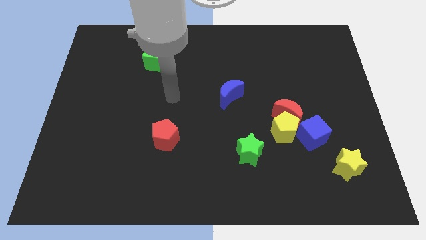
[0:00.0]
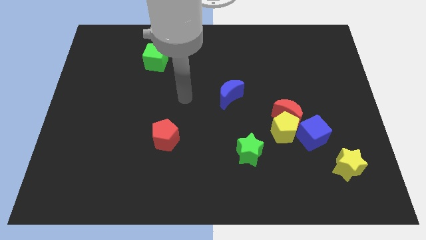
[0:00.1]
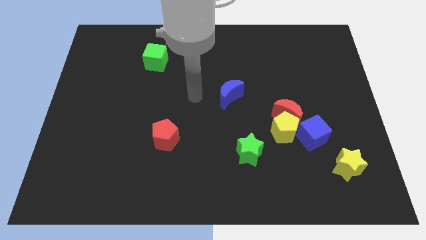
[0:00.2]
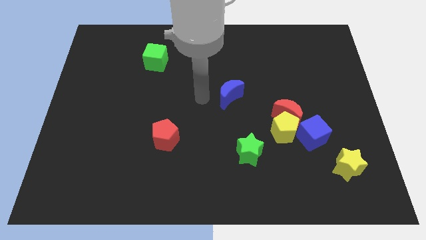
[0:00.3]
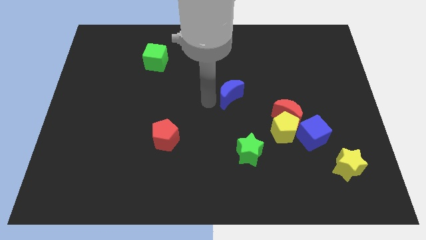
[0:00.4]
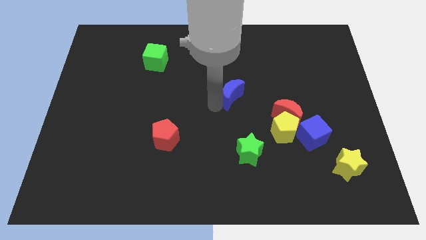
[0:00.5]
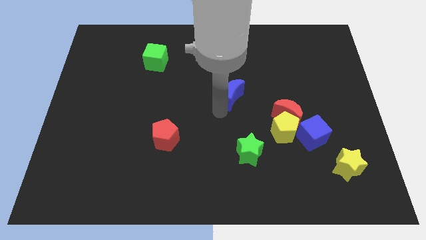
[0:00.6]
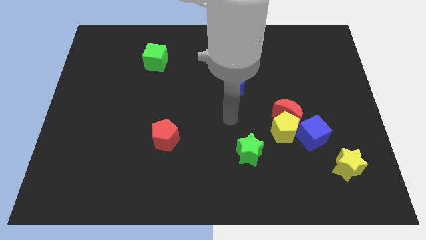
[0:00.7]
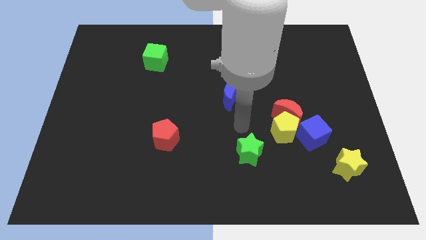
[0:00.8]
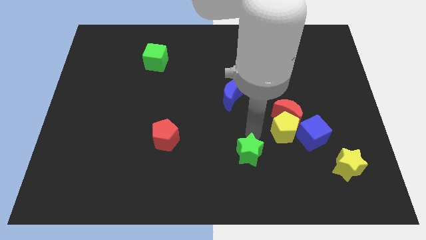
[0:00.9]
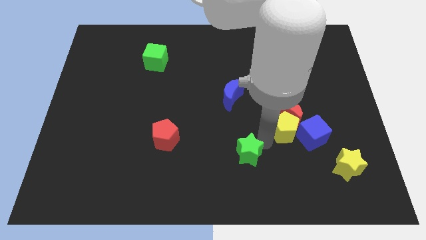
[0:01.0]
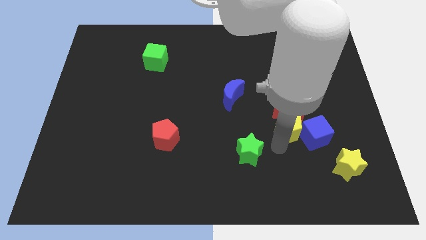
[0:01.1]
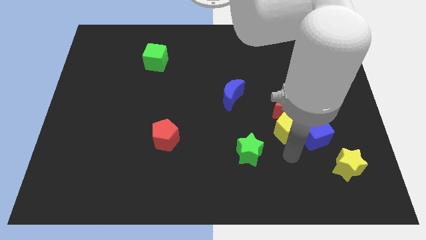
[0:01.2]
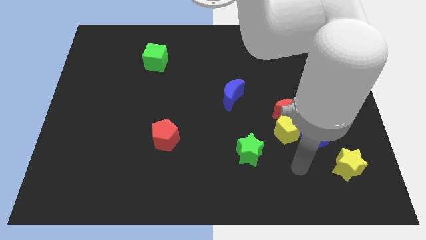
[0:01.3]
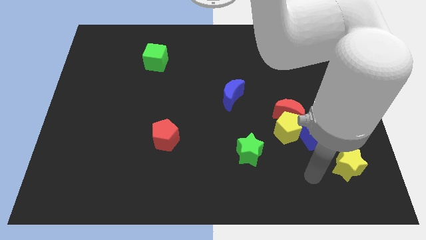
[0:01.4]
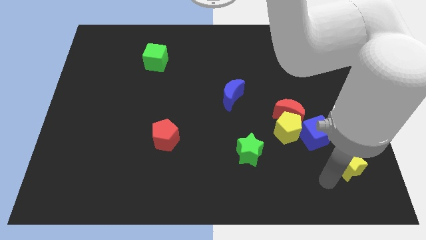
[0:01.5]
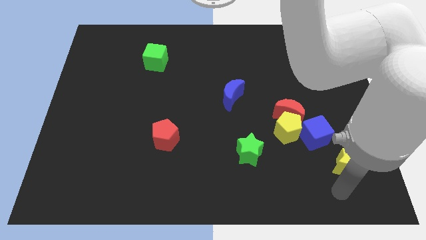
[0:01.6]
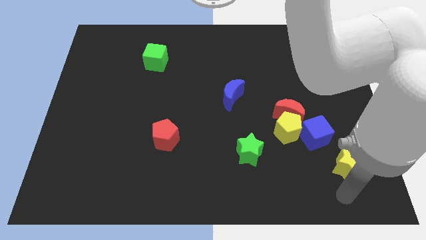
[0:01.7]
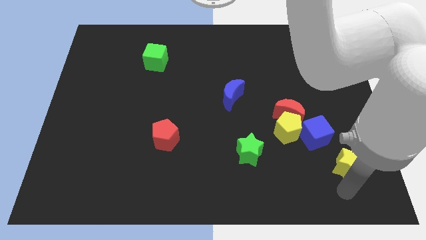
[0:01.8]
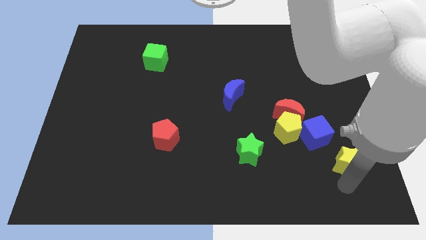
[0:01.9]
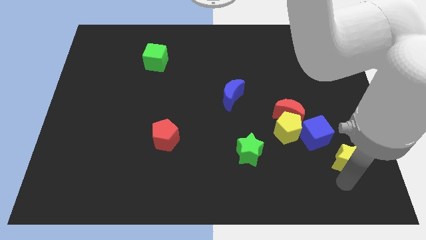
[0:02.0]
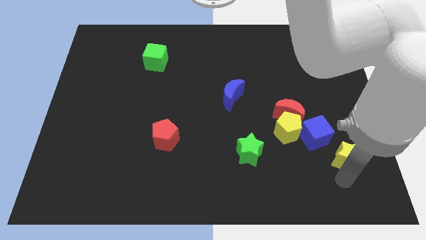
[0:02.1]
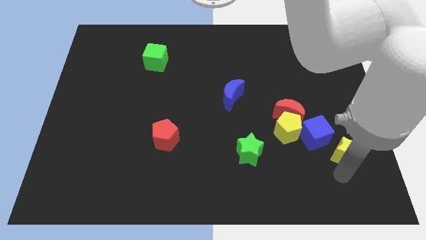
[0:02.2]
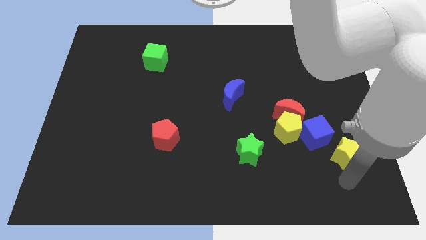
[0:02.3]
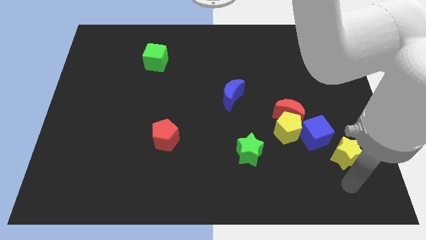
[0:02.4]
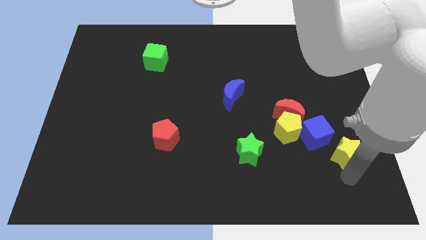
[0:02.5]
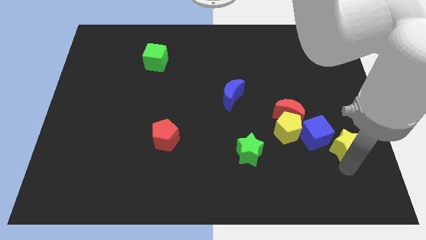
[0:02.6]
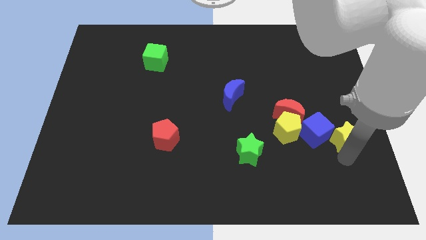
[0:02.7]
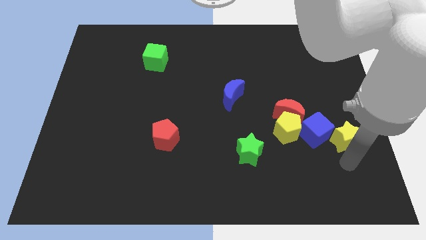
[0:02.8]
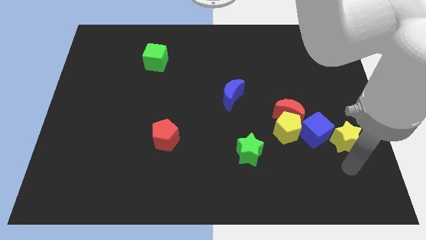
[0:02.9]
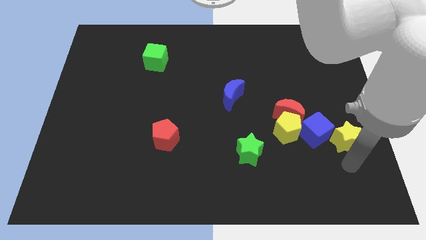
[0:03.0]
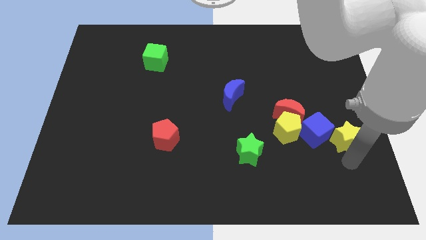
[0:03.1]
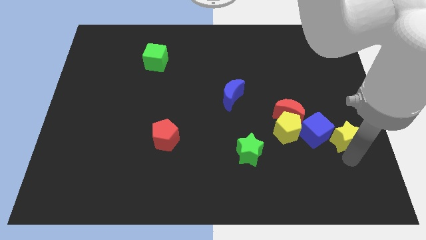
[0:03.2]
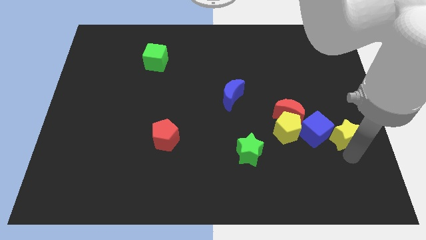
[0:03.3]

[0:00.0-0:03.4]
move the yellow star up a little

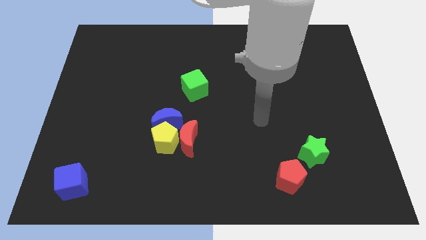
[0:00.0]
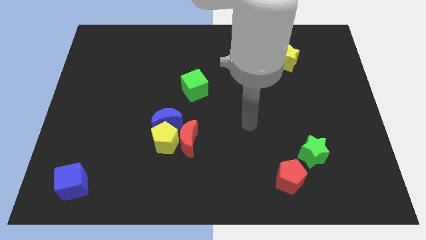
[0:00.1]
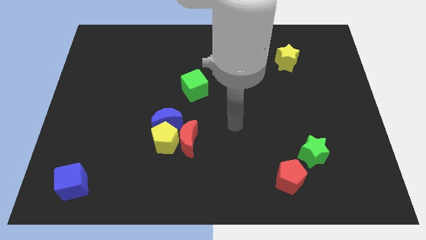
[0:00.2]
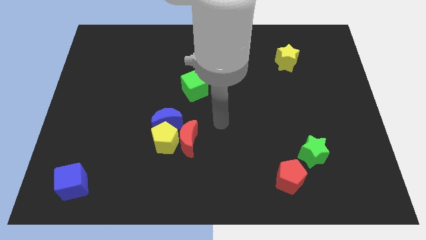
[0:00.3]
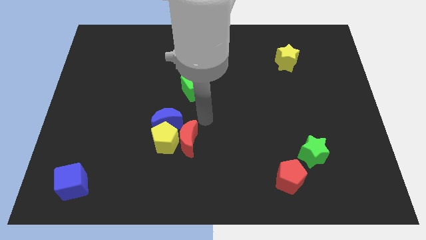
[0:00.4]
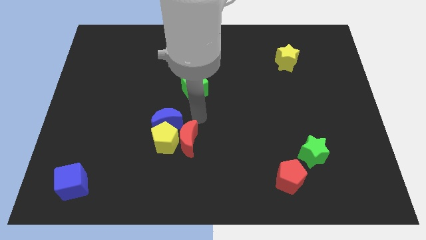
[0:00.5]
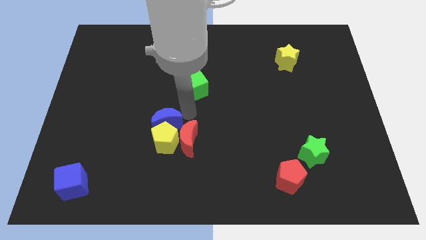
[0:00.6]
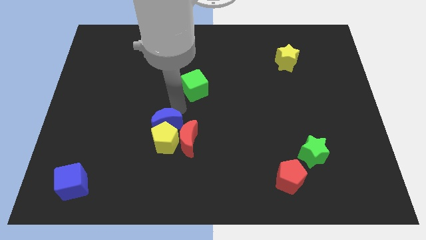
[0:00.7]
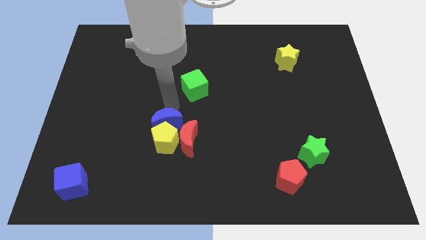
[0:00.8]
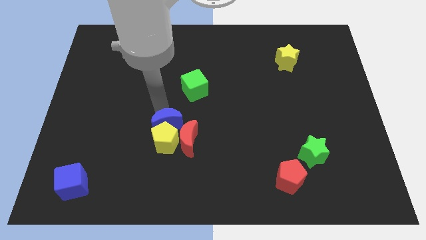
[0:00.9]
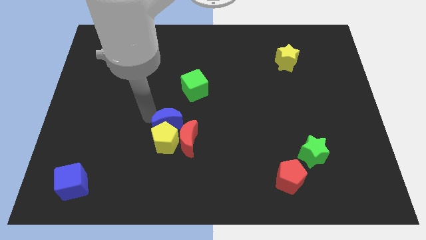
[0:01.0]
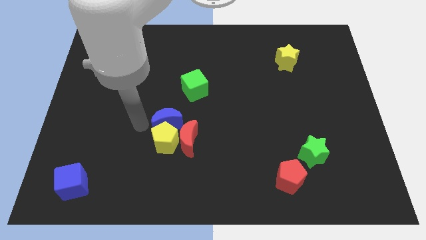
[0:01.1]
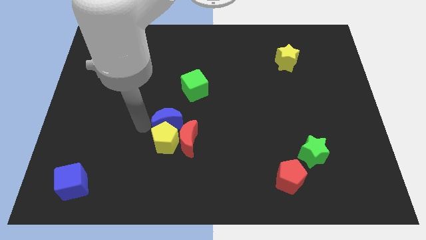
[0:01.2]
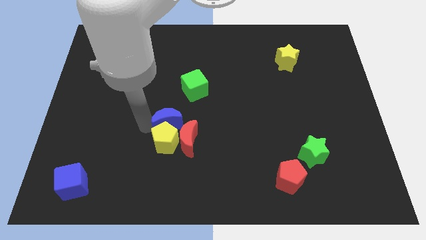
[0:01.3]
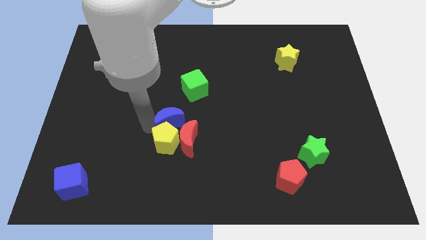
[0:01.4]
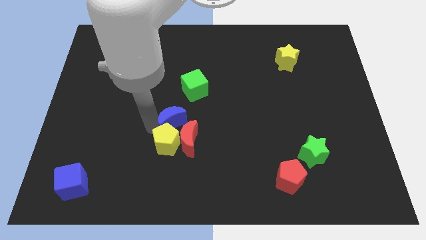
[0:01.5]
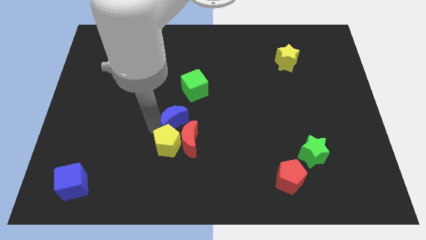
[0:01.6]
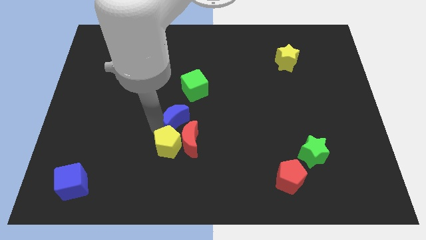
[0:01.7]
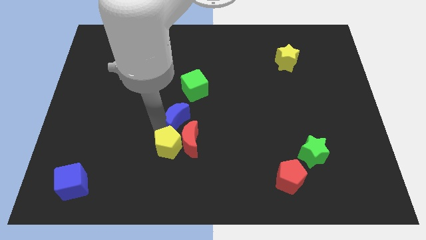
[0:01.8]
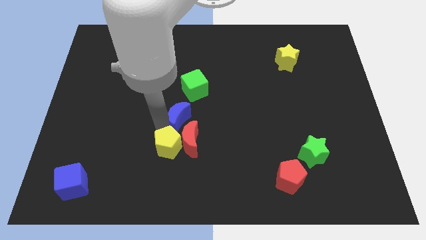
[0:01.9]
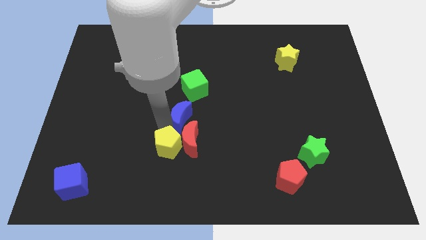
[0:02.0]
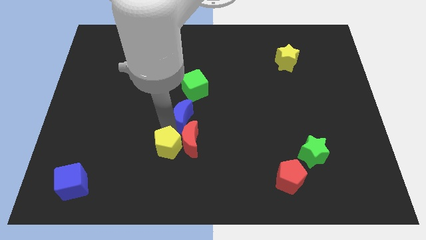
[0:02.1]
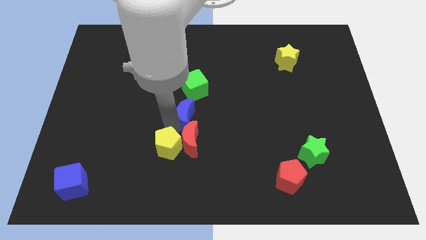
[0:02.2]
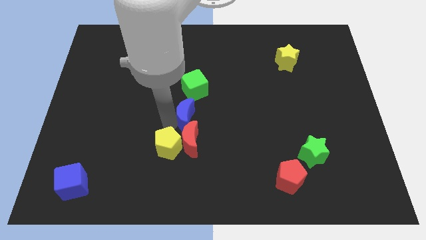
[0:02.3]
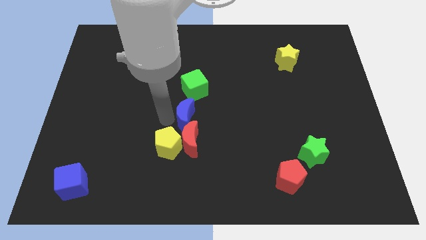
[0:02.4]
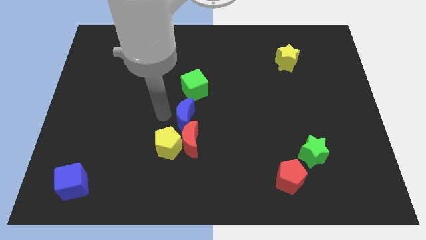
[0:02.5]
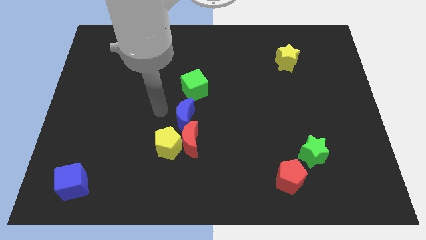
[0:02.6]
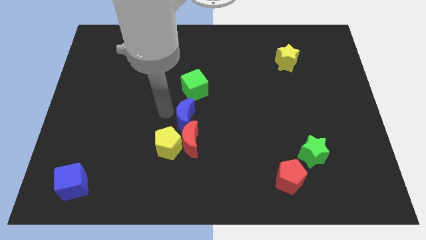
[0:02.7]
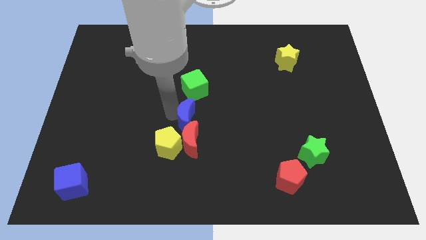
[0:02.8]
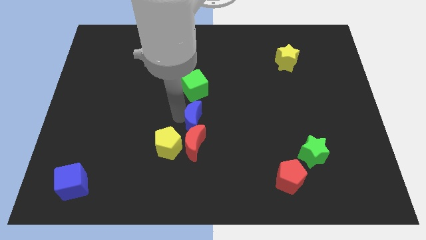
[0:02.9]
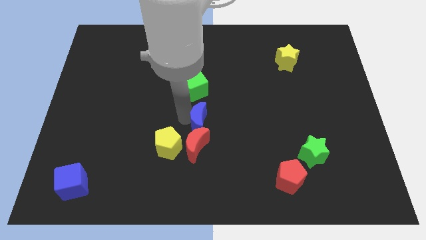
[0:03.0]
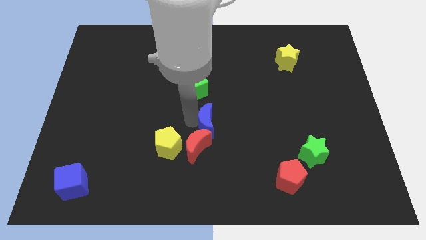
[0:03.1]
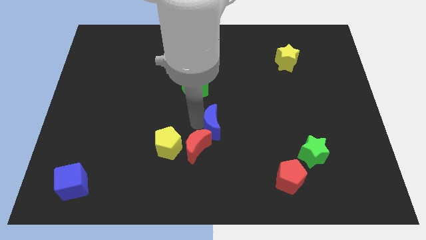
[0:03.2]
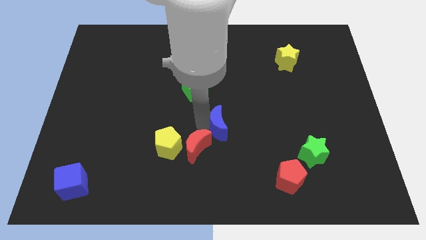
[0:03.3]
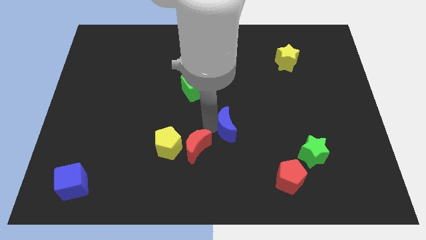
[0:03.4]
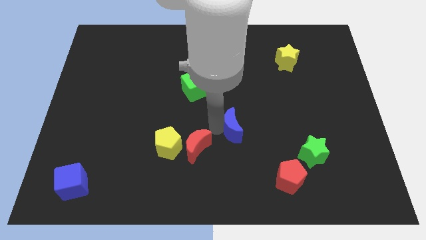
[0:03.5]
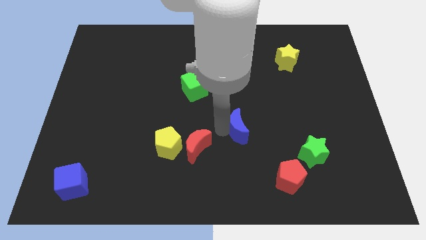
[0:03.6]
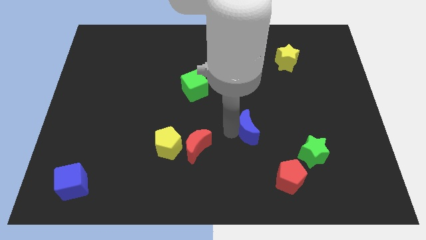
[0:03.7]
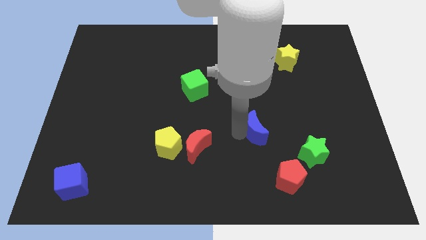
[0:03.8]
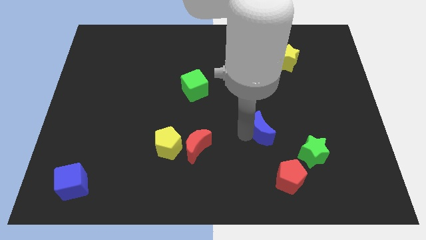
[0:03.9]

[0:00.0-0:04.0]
slide the blue moon right

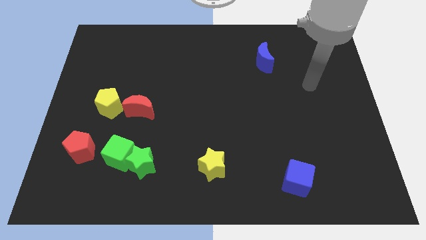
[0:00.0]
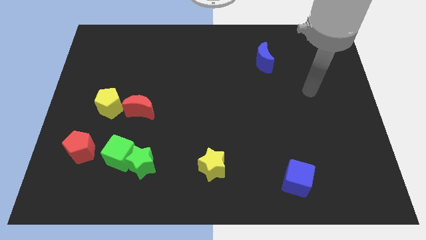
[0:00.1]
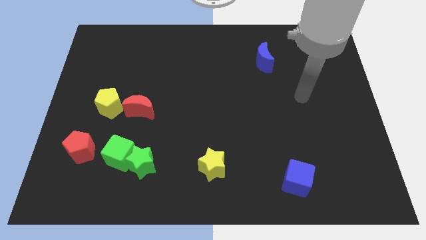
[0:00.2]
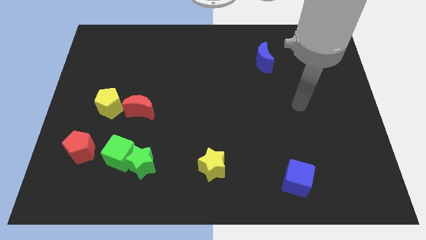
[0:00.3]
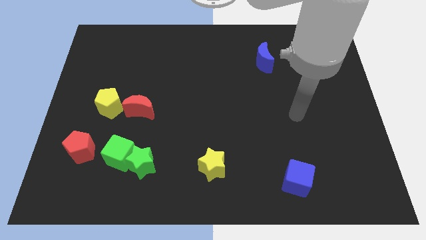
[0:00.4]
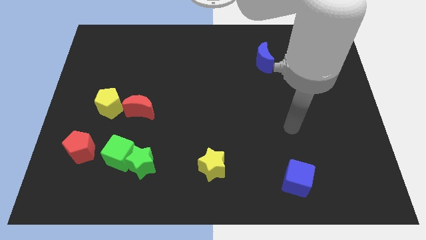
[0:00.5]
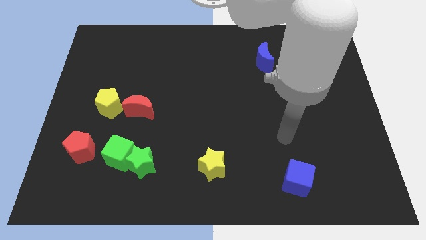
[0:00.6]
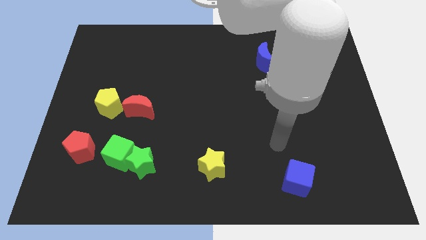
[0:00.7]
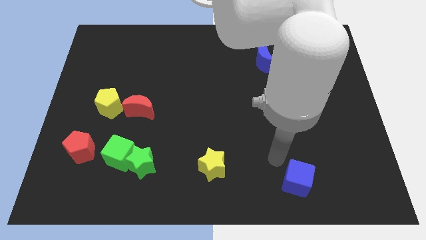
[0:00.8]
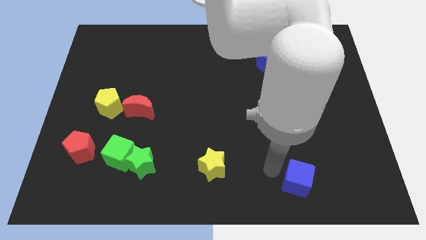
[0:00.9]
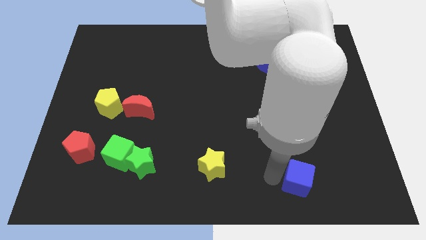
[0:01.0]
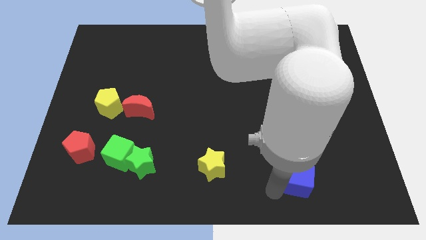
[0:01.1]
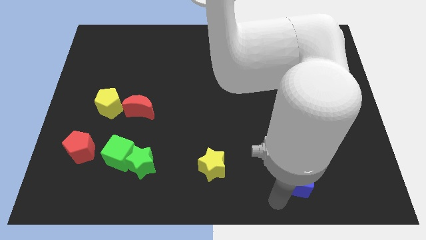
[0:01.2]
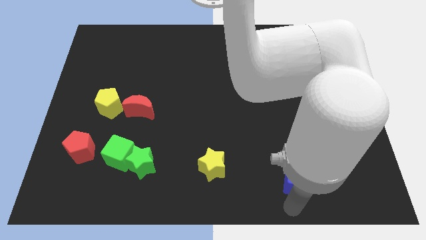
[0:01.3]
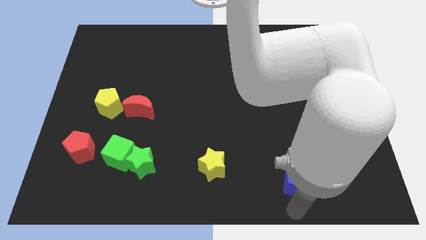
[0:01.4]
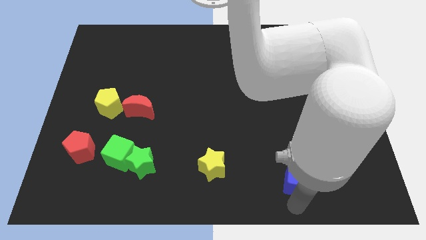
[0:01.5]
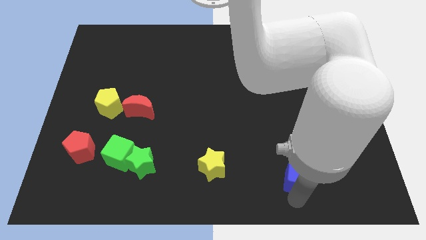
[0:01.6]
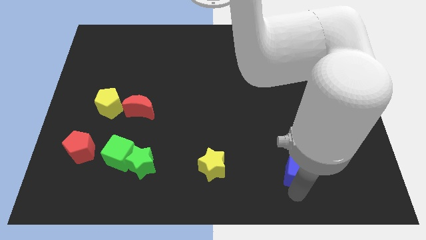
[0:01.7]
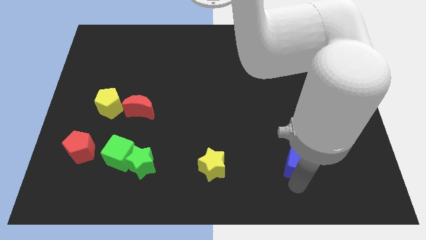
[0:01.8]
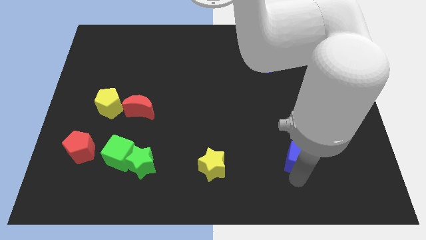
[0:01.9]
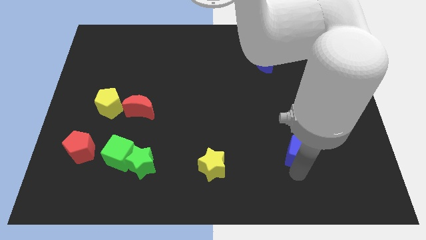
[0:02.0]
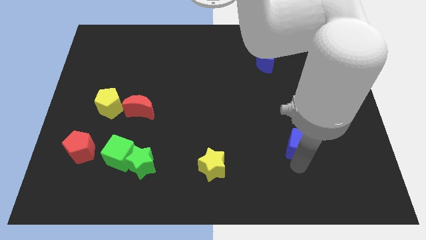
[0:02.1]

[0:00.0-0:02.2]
slightly move the blue cube upwards
